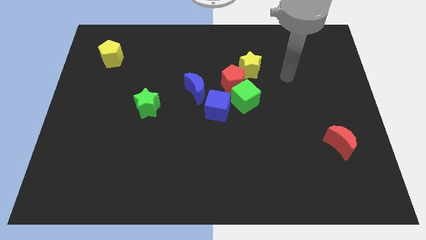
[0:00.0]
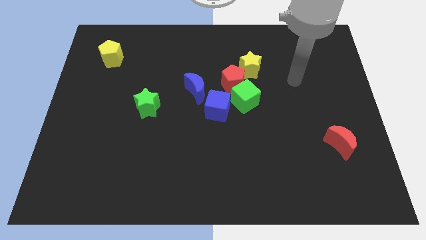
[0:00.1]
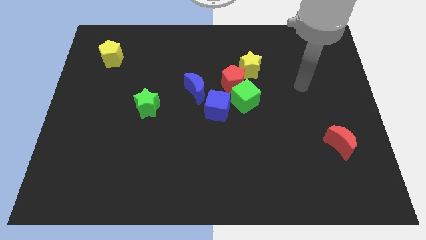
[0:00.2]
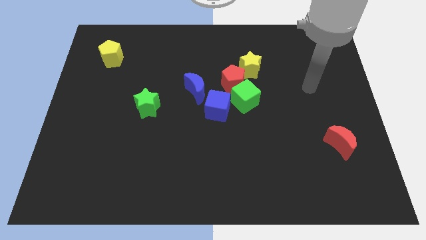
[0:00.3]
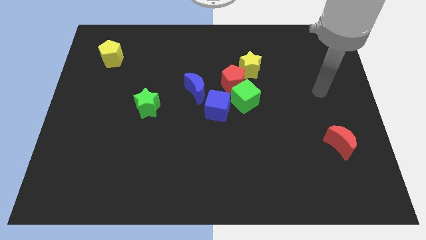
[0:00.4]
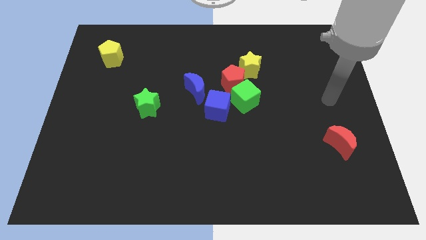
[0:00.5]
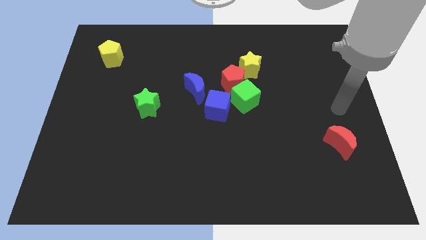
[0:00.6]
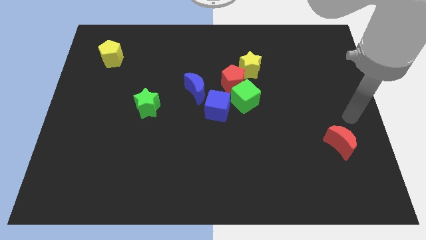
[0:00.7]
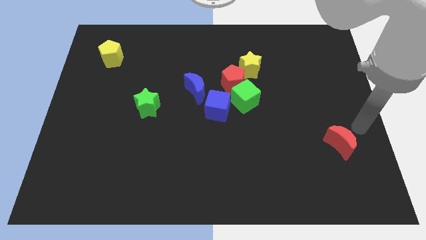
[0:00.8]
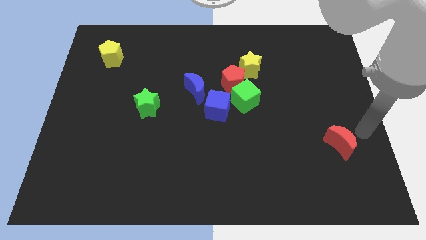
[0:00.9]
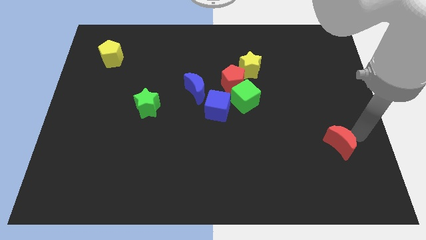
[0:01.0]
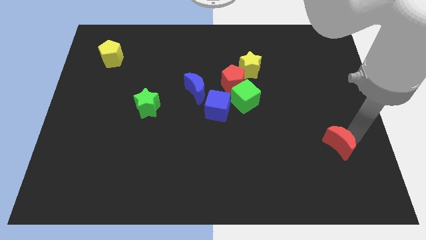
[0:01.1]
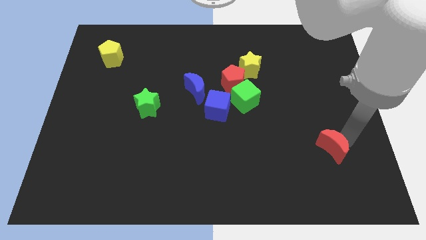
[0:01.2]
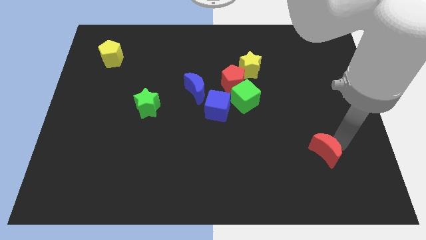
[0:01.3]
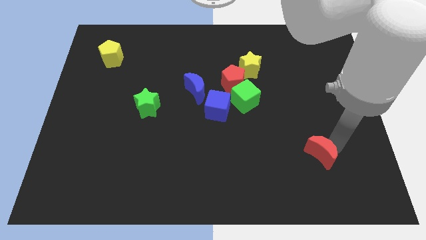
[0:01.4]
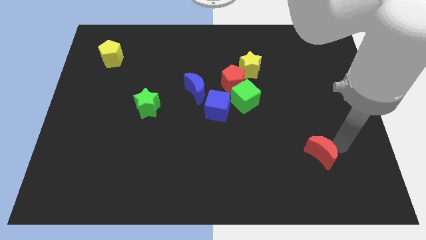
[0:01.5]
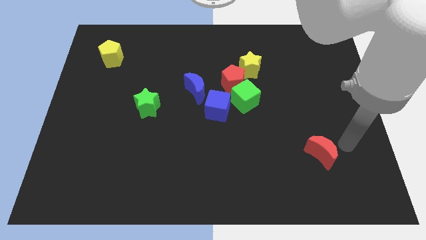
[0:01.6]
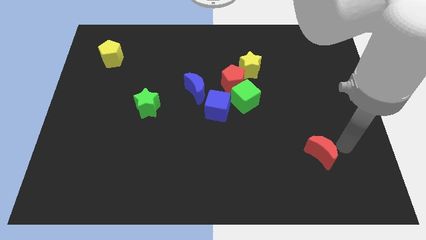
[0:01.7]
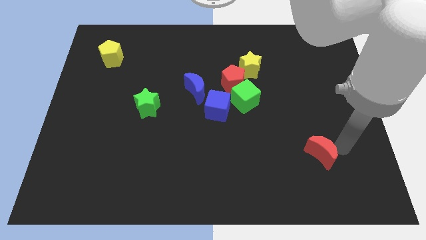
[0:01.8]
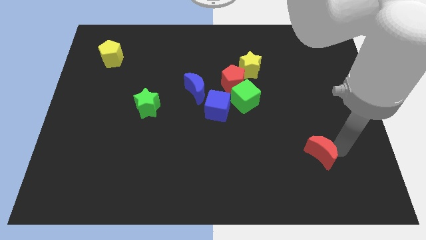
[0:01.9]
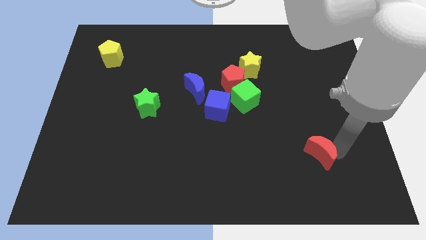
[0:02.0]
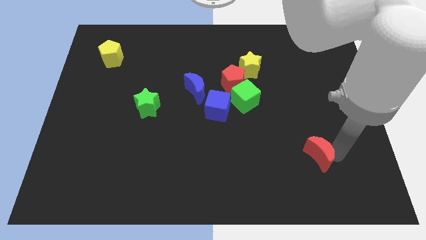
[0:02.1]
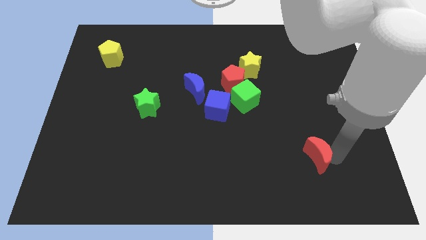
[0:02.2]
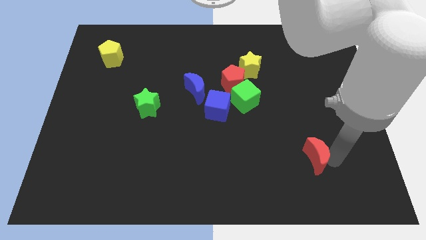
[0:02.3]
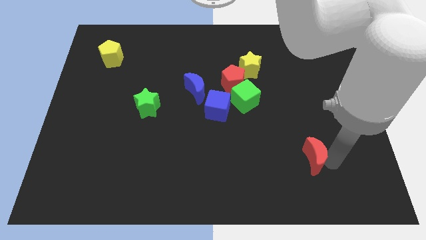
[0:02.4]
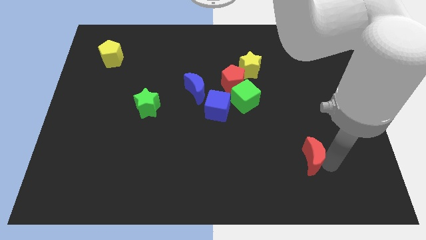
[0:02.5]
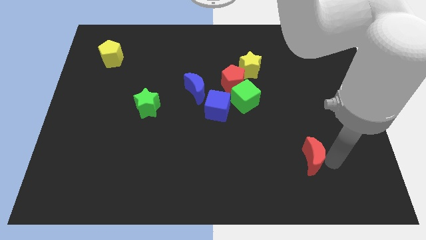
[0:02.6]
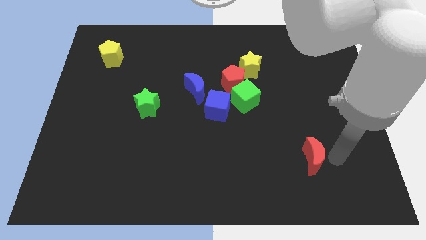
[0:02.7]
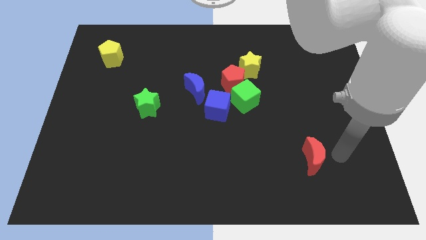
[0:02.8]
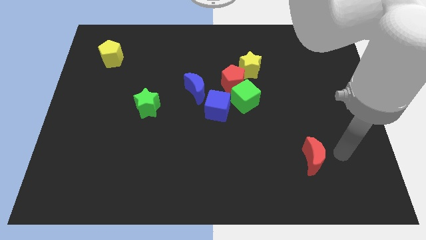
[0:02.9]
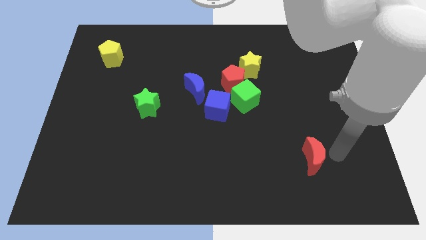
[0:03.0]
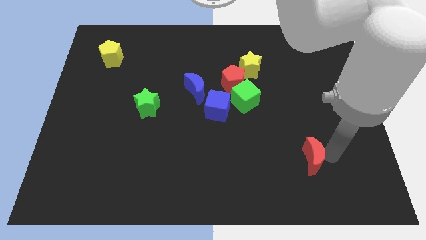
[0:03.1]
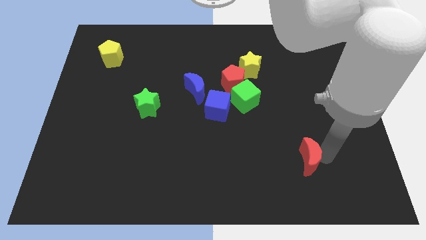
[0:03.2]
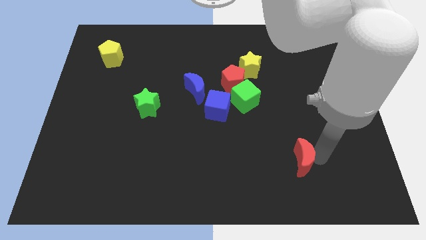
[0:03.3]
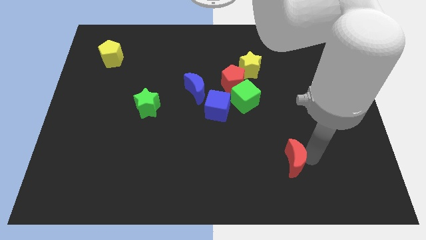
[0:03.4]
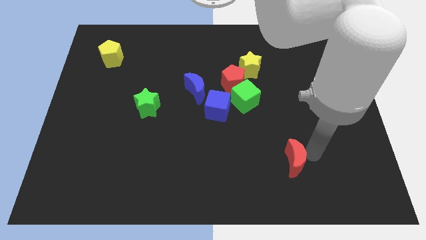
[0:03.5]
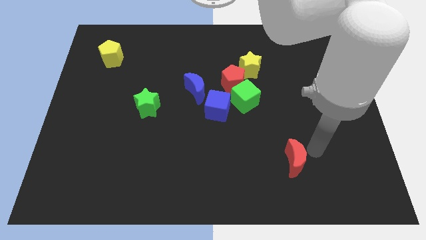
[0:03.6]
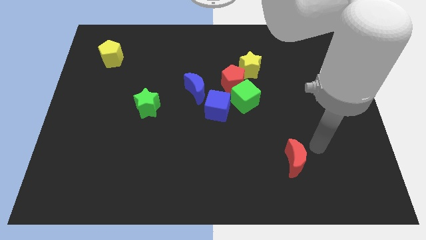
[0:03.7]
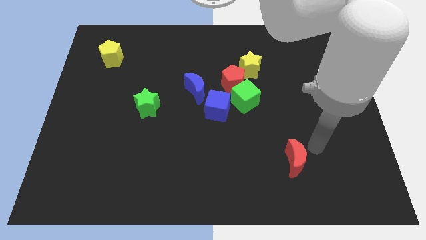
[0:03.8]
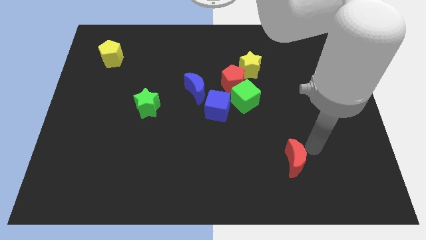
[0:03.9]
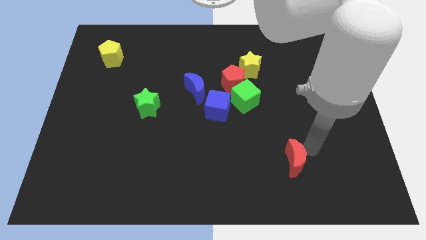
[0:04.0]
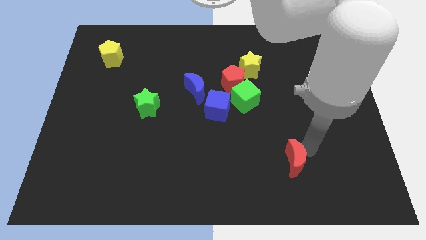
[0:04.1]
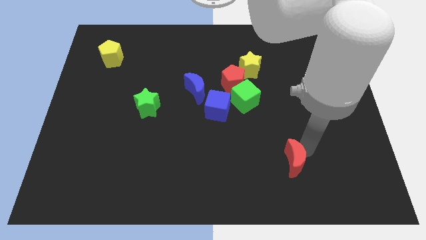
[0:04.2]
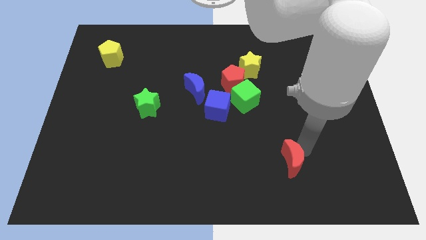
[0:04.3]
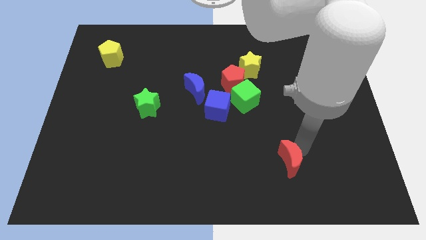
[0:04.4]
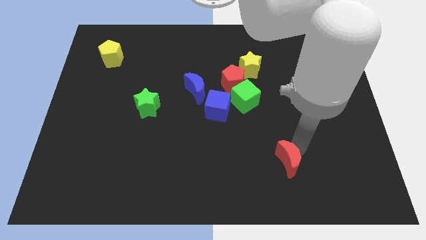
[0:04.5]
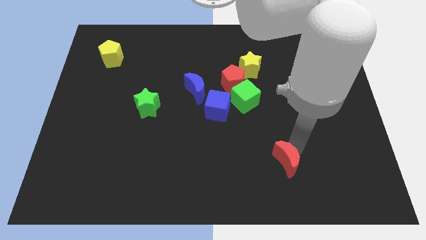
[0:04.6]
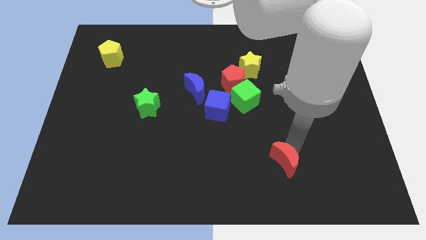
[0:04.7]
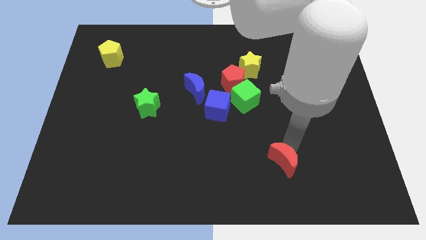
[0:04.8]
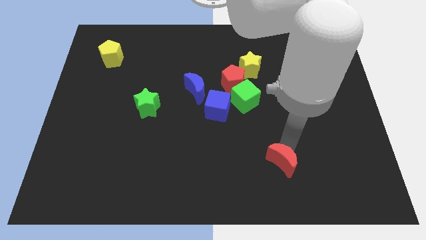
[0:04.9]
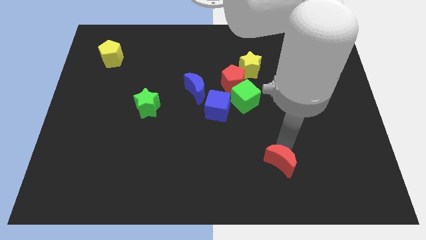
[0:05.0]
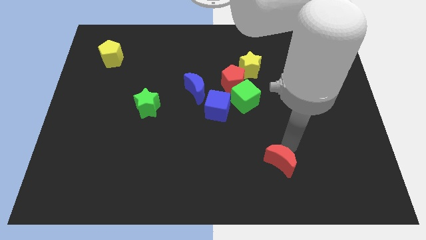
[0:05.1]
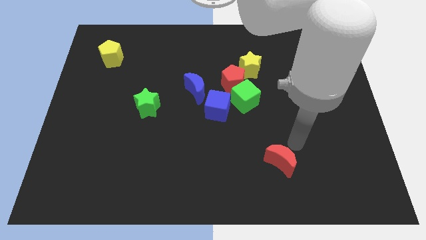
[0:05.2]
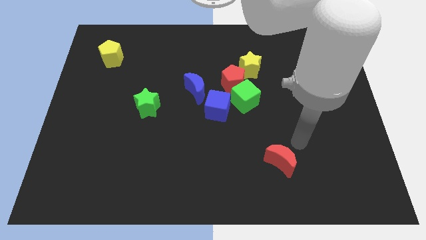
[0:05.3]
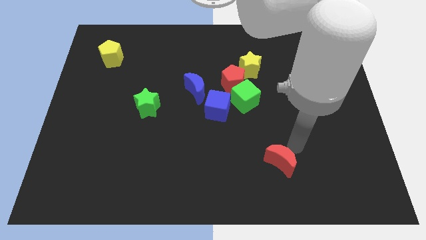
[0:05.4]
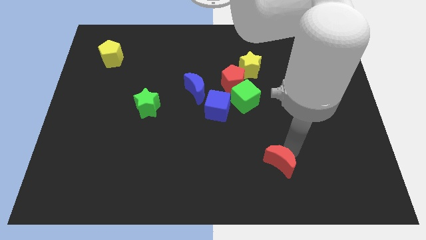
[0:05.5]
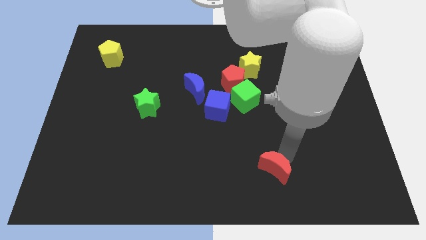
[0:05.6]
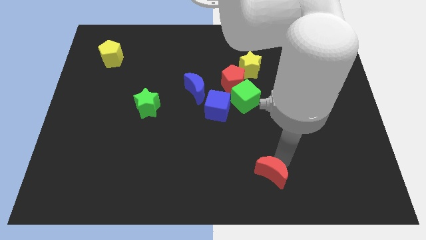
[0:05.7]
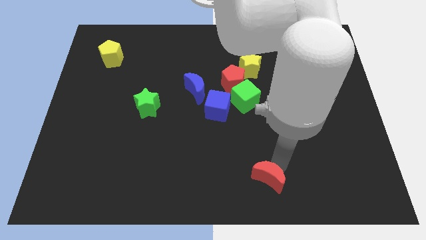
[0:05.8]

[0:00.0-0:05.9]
slide the red moon to the bottom side
